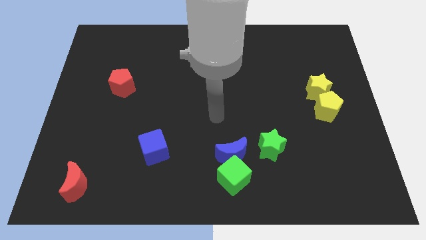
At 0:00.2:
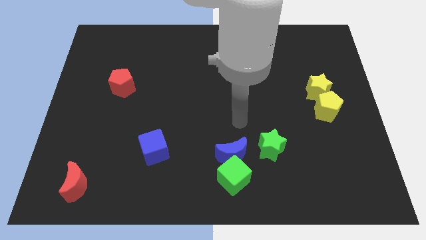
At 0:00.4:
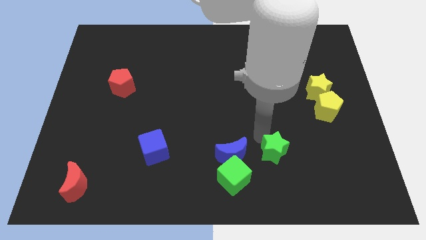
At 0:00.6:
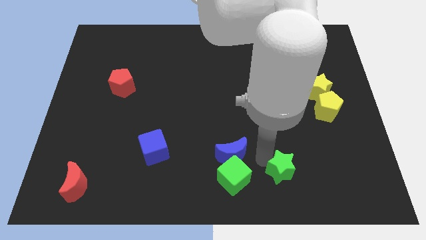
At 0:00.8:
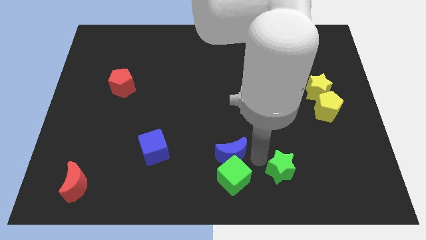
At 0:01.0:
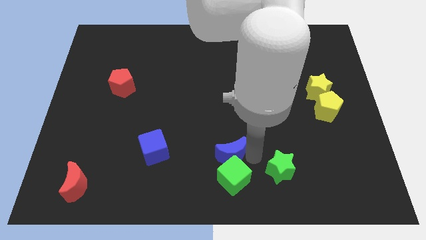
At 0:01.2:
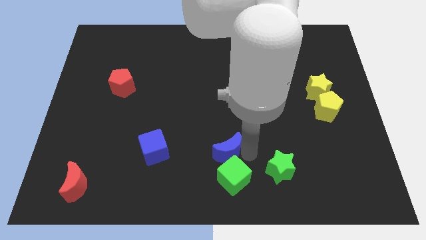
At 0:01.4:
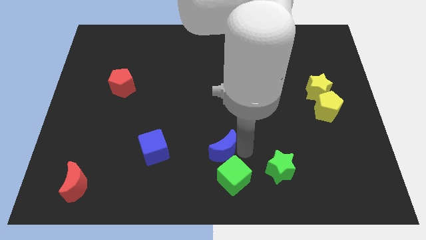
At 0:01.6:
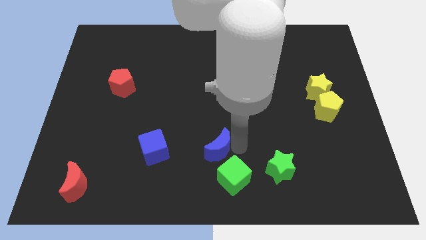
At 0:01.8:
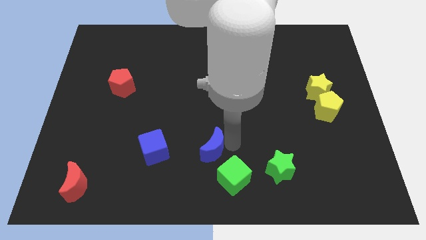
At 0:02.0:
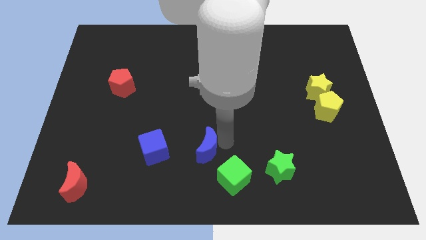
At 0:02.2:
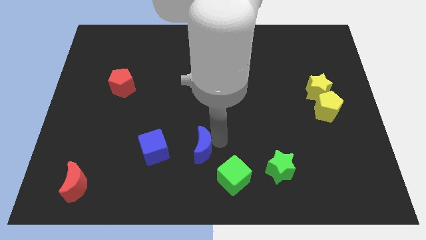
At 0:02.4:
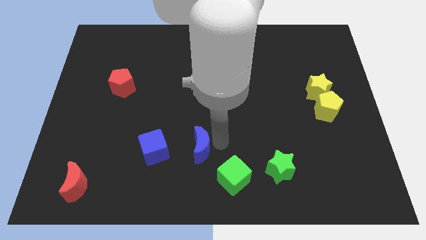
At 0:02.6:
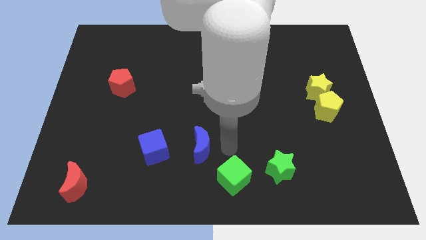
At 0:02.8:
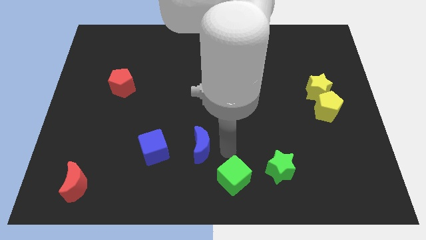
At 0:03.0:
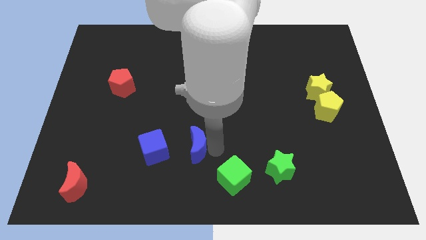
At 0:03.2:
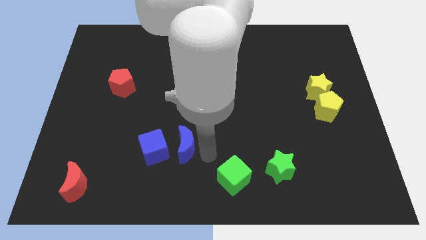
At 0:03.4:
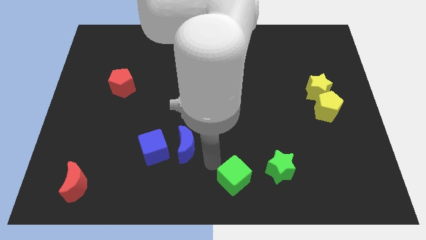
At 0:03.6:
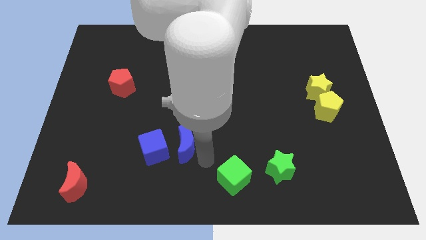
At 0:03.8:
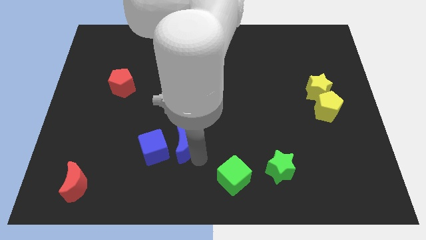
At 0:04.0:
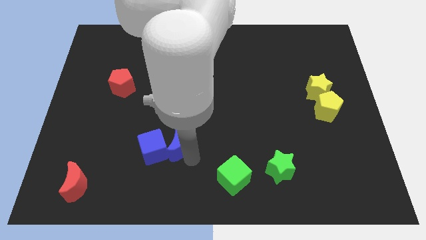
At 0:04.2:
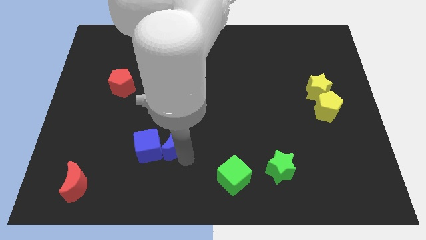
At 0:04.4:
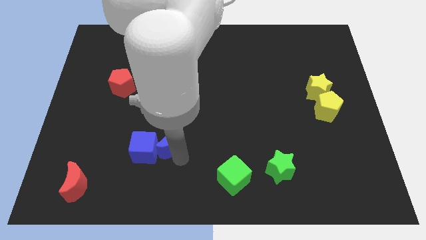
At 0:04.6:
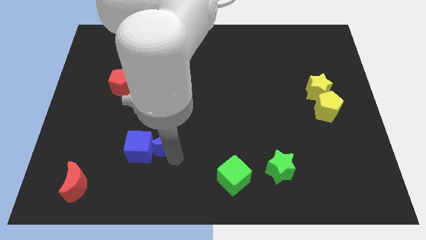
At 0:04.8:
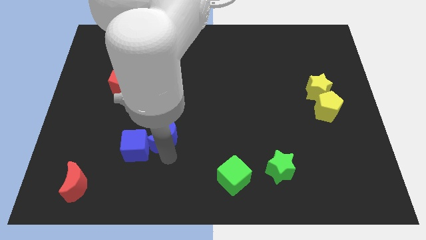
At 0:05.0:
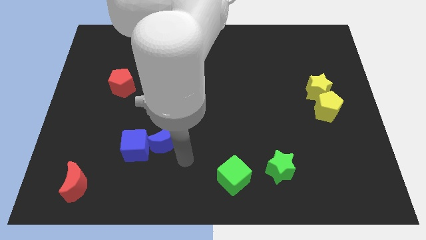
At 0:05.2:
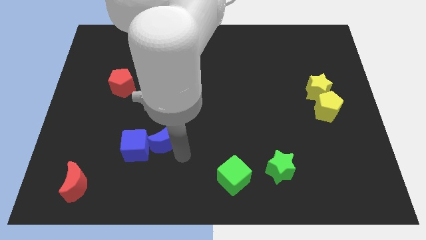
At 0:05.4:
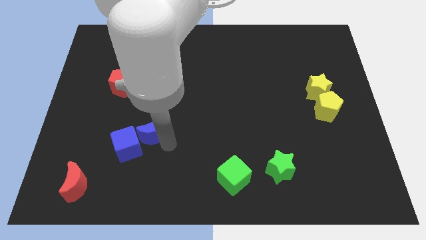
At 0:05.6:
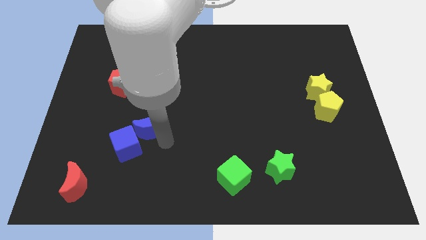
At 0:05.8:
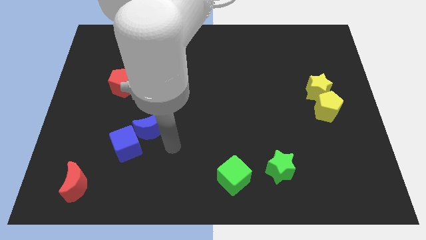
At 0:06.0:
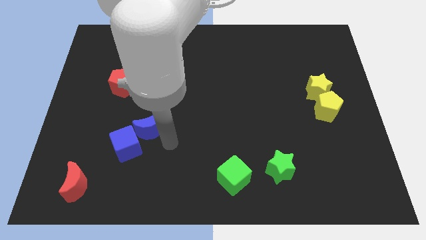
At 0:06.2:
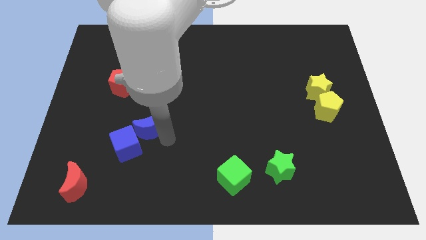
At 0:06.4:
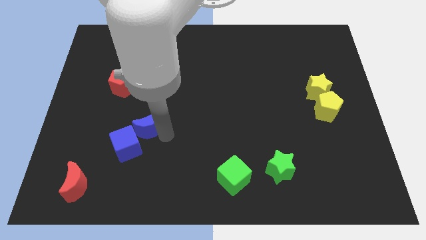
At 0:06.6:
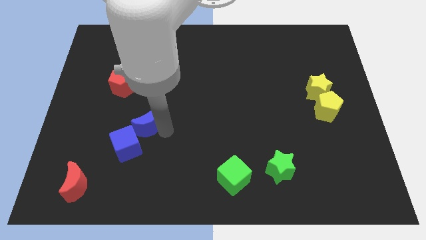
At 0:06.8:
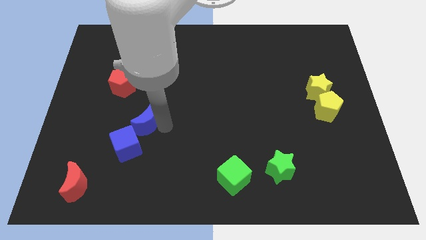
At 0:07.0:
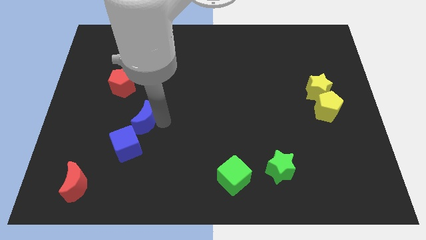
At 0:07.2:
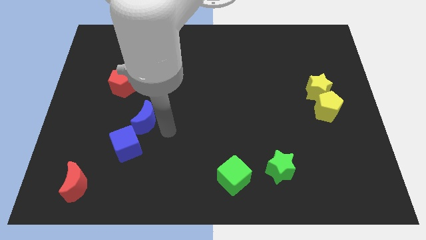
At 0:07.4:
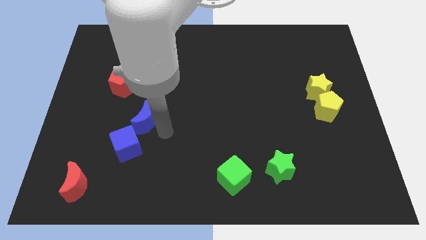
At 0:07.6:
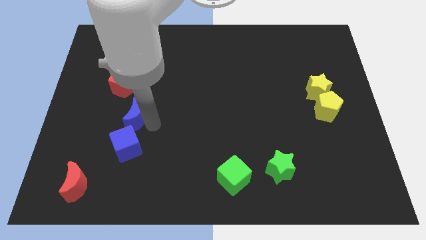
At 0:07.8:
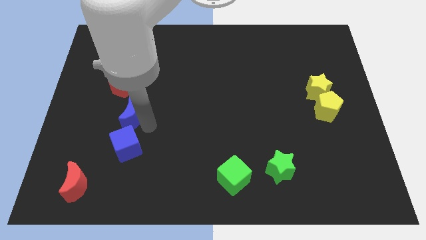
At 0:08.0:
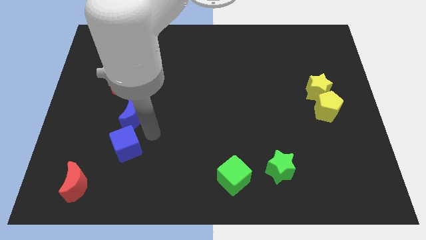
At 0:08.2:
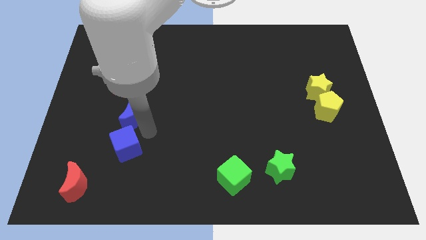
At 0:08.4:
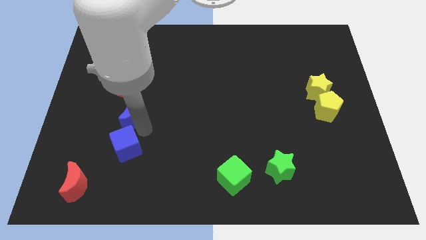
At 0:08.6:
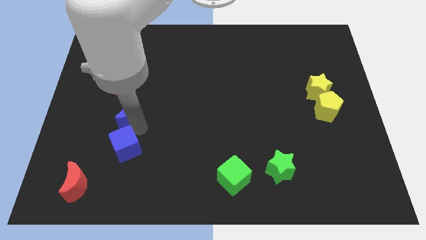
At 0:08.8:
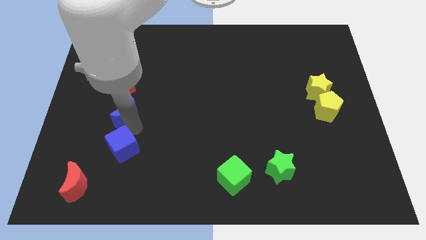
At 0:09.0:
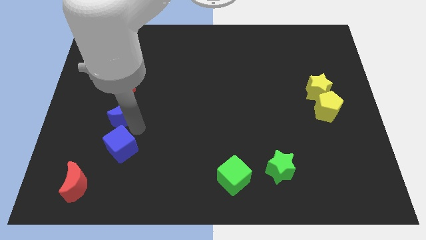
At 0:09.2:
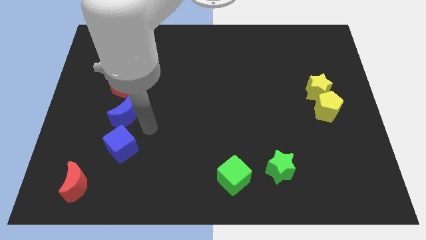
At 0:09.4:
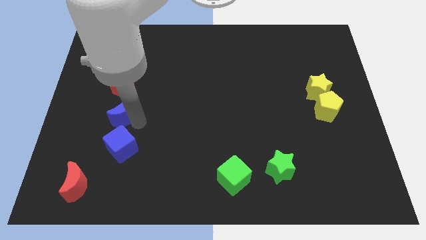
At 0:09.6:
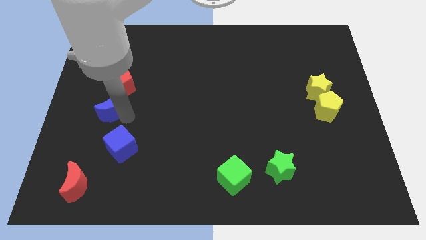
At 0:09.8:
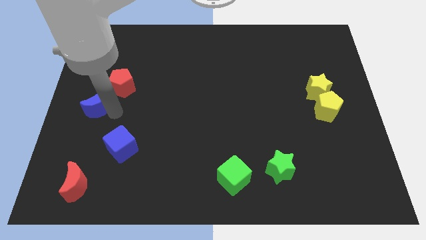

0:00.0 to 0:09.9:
push the blue moon to the left side
